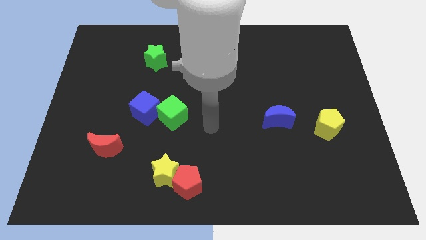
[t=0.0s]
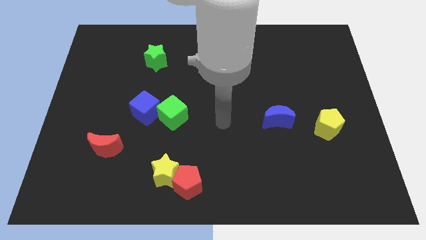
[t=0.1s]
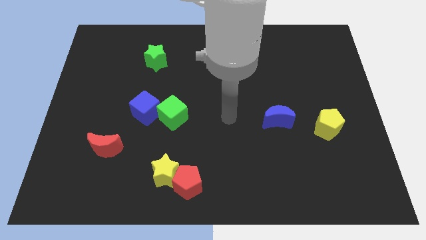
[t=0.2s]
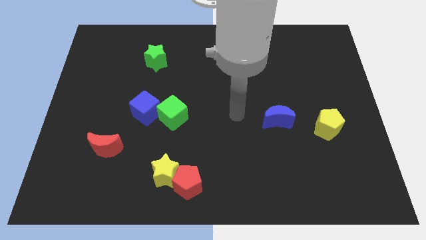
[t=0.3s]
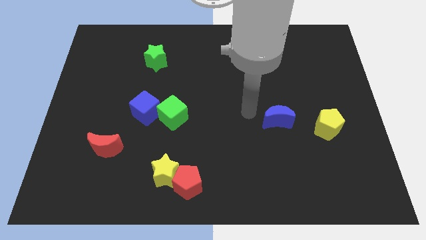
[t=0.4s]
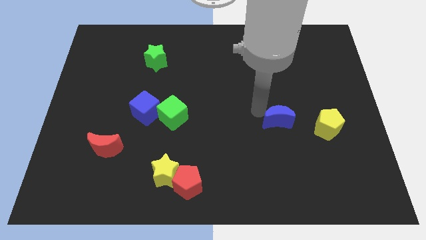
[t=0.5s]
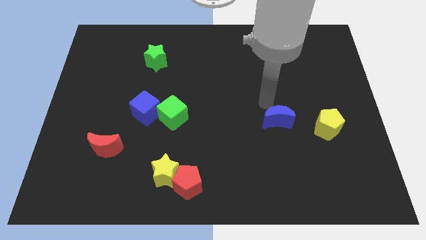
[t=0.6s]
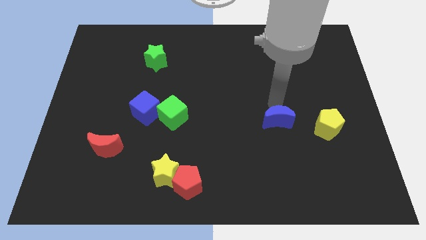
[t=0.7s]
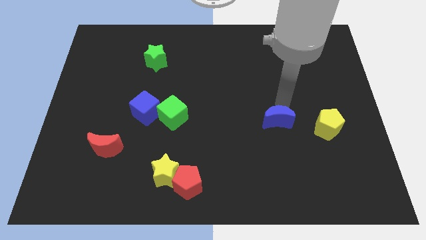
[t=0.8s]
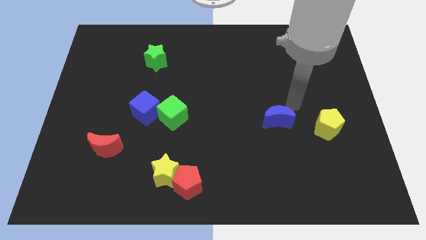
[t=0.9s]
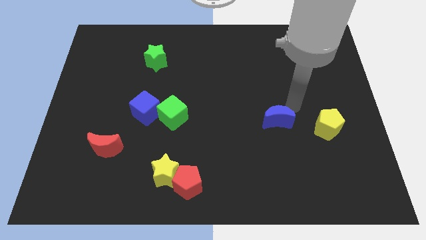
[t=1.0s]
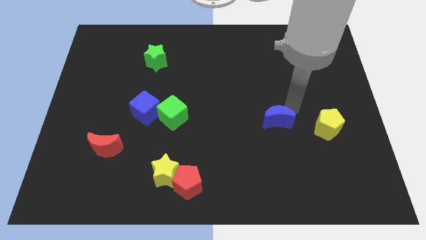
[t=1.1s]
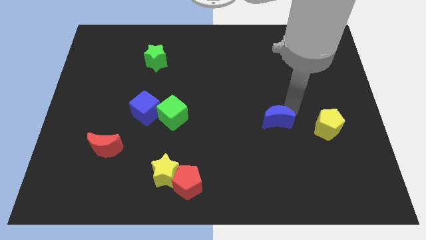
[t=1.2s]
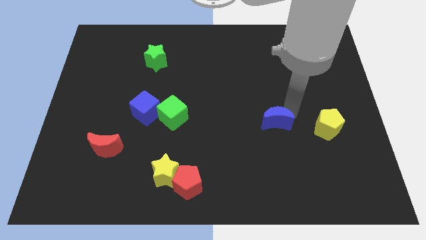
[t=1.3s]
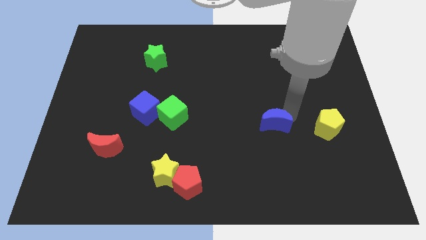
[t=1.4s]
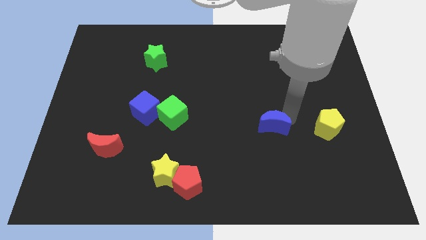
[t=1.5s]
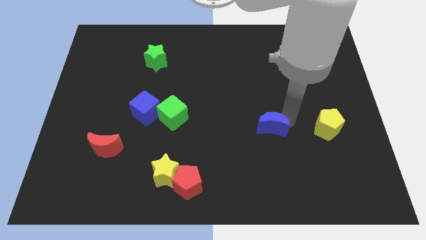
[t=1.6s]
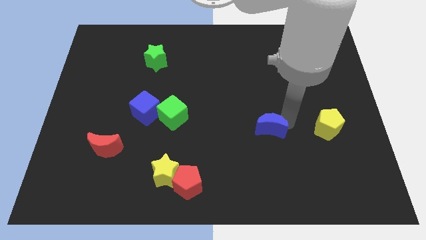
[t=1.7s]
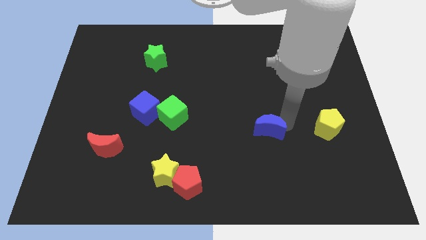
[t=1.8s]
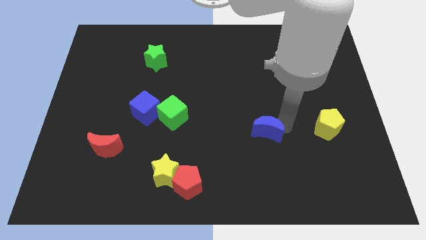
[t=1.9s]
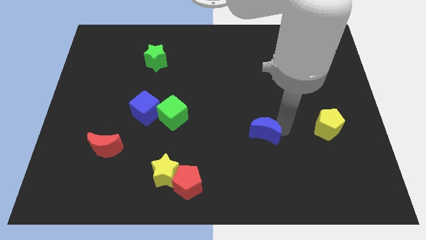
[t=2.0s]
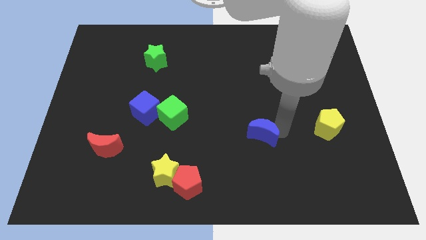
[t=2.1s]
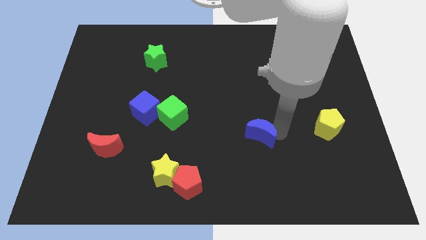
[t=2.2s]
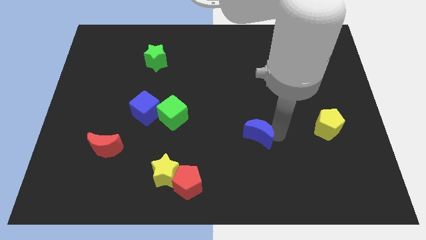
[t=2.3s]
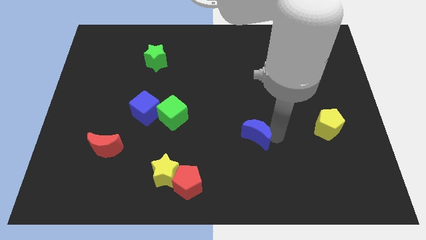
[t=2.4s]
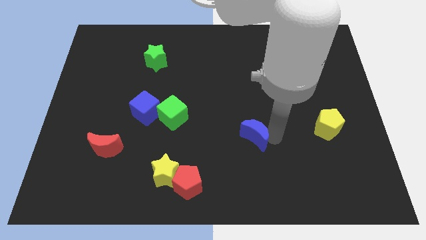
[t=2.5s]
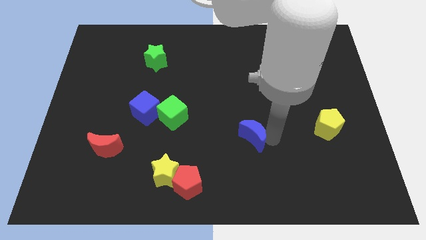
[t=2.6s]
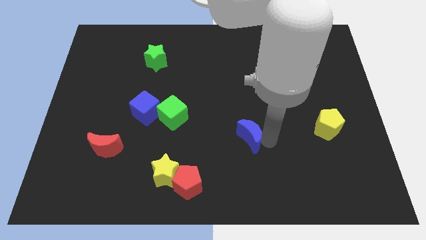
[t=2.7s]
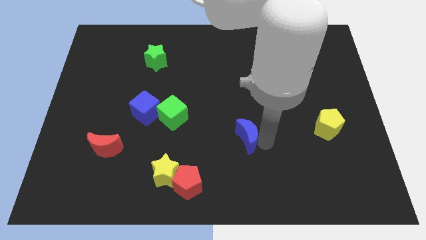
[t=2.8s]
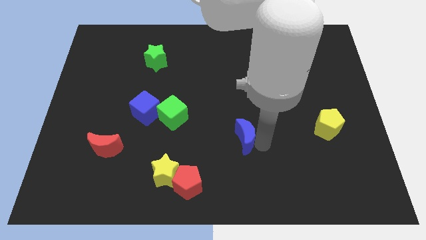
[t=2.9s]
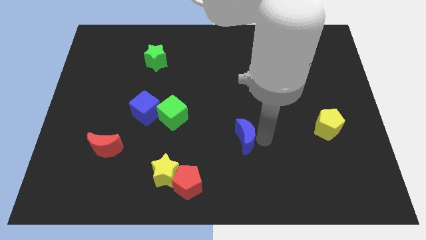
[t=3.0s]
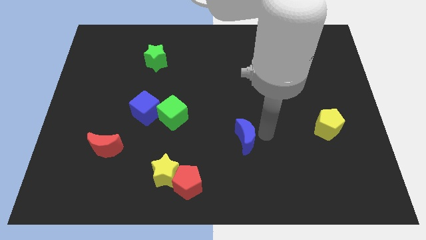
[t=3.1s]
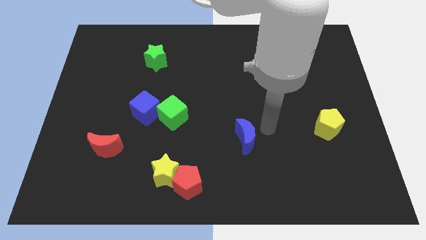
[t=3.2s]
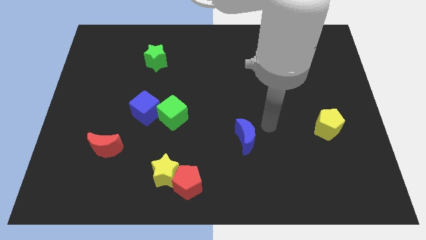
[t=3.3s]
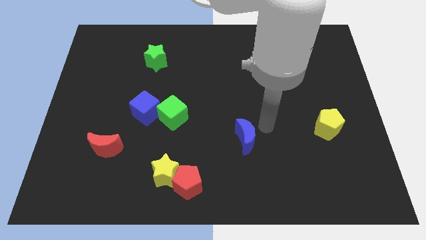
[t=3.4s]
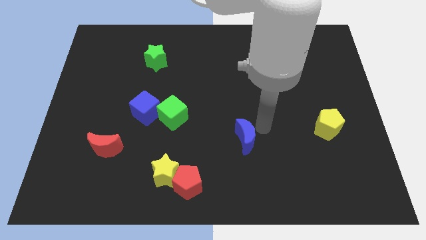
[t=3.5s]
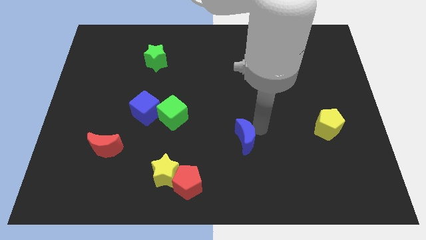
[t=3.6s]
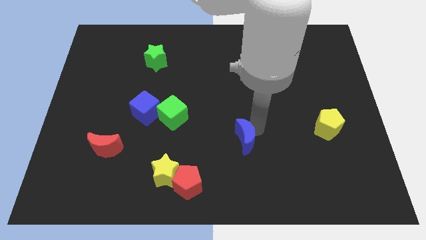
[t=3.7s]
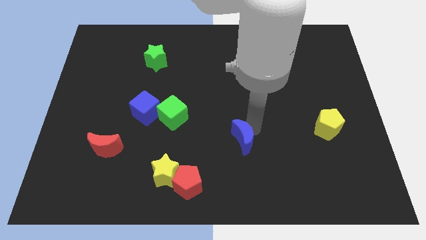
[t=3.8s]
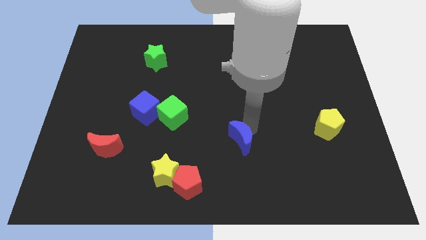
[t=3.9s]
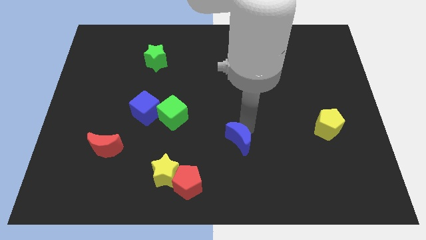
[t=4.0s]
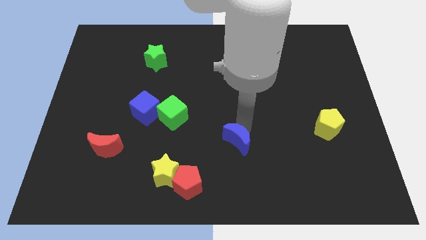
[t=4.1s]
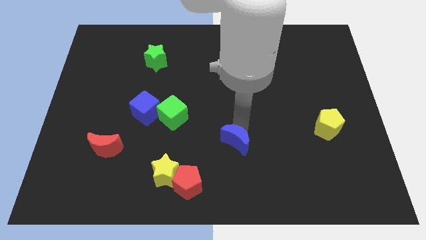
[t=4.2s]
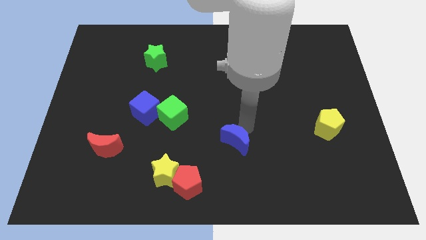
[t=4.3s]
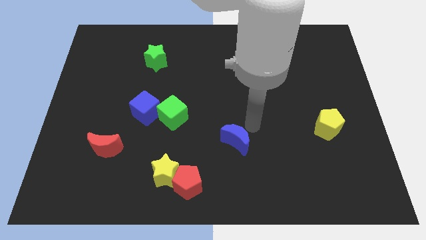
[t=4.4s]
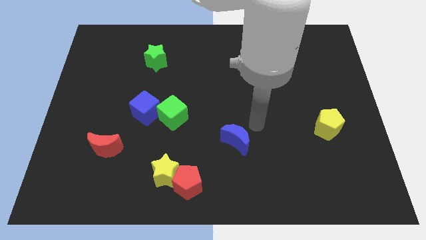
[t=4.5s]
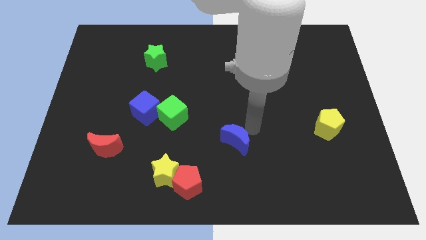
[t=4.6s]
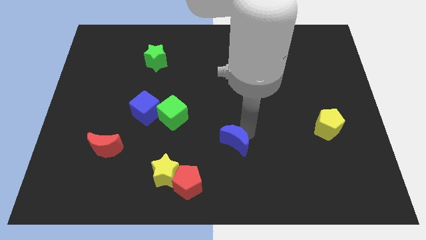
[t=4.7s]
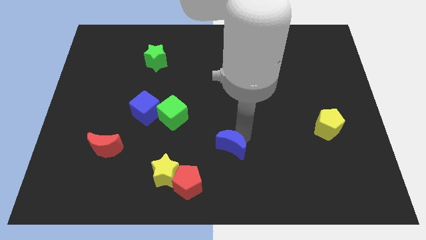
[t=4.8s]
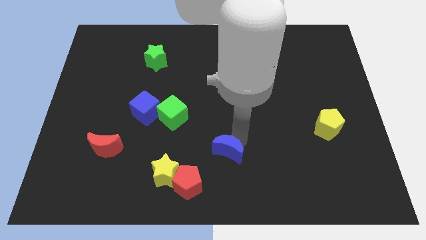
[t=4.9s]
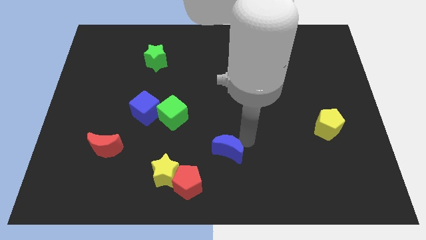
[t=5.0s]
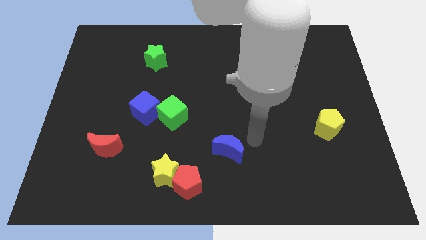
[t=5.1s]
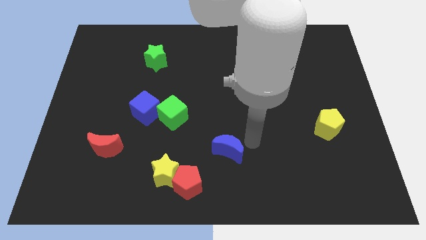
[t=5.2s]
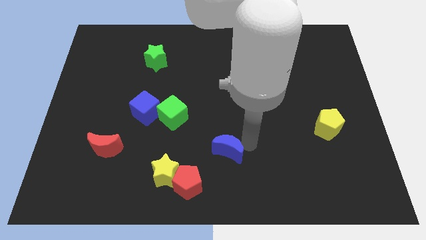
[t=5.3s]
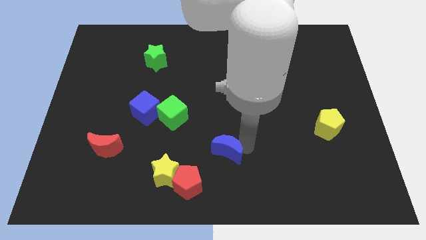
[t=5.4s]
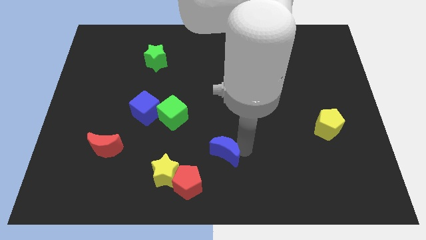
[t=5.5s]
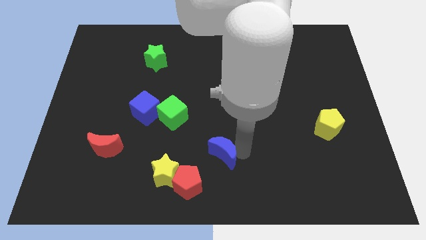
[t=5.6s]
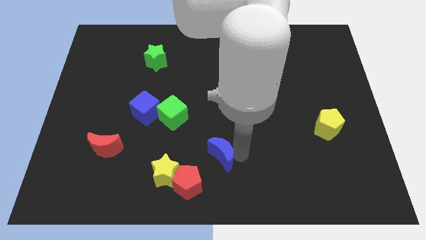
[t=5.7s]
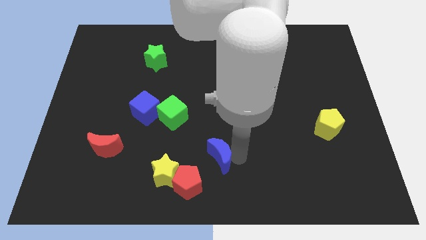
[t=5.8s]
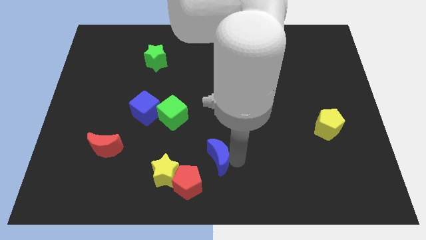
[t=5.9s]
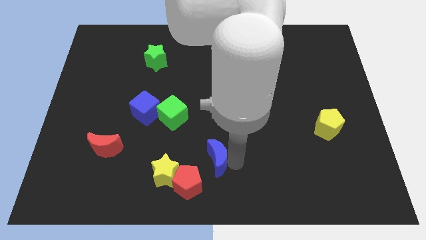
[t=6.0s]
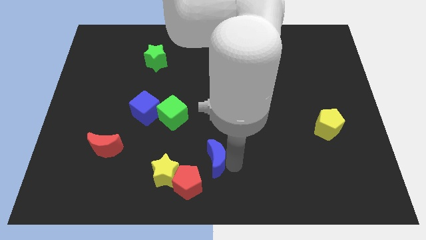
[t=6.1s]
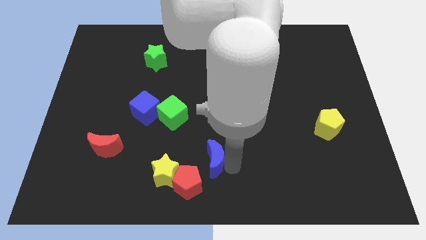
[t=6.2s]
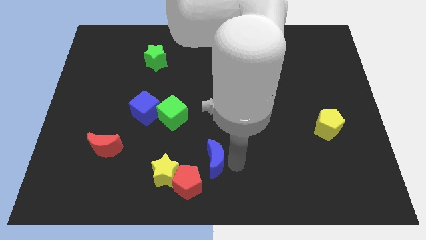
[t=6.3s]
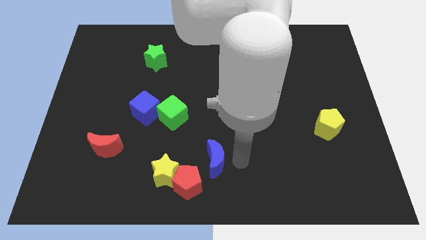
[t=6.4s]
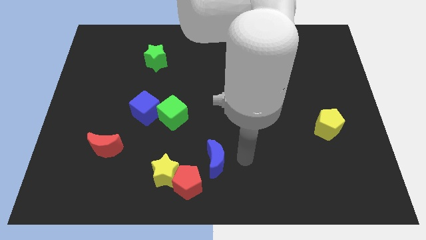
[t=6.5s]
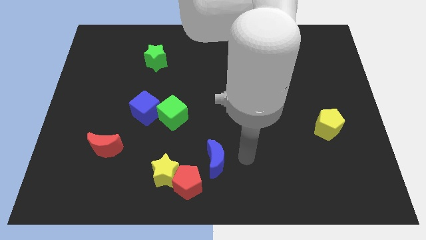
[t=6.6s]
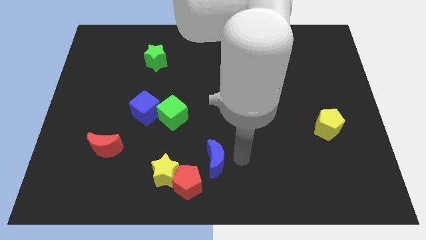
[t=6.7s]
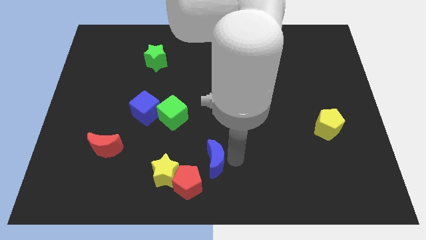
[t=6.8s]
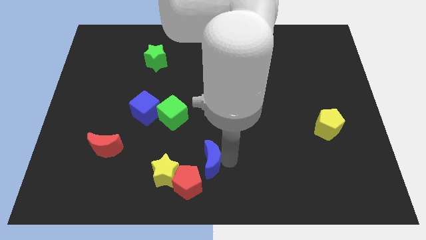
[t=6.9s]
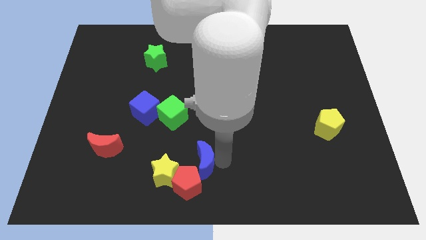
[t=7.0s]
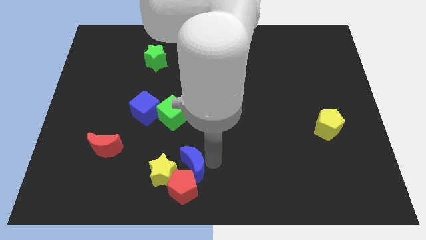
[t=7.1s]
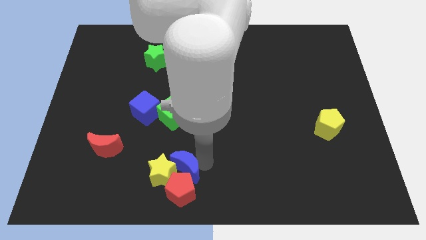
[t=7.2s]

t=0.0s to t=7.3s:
move the blue moon to the yellow star
